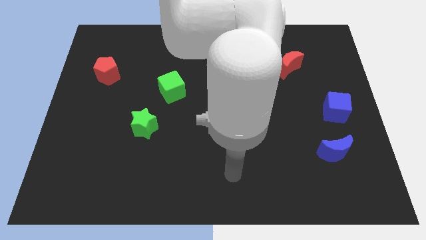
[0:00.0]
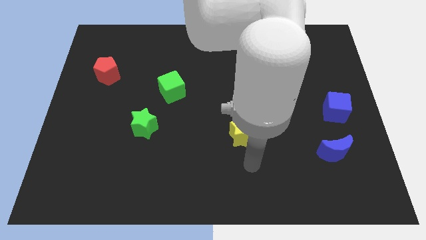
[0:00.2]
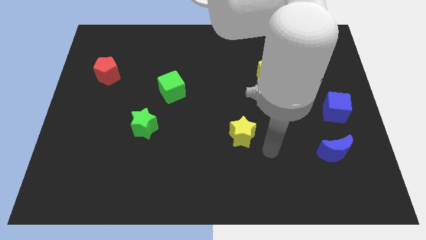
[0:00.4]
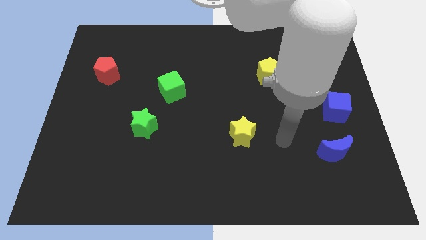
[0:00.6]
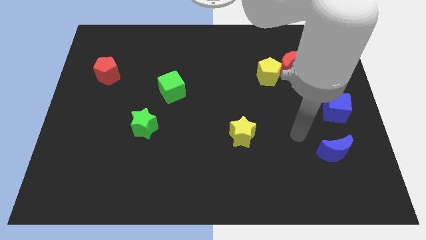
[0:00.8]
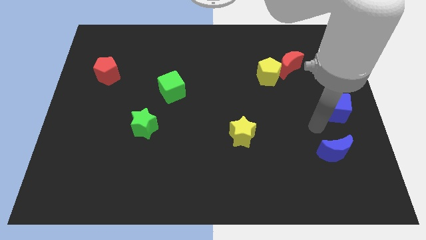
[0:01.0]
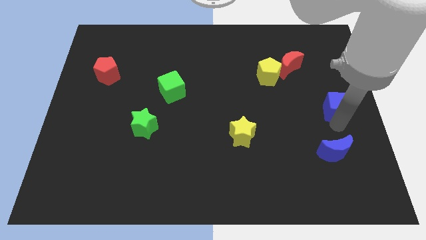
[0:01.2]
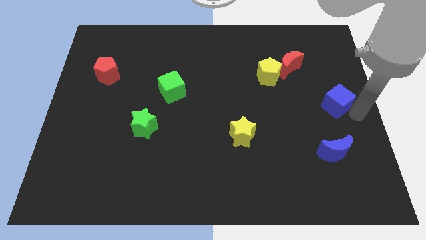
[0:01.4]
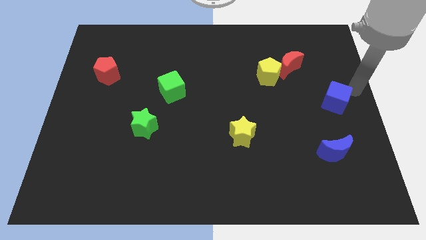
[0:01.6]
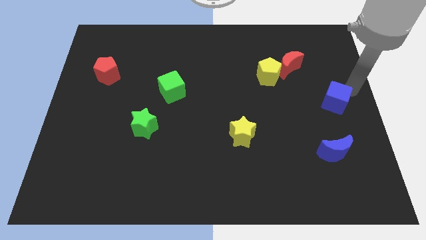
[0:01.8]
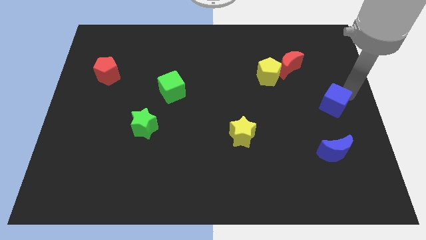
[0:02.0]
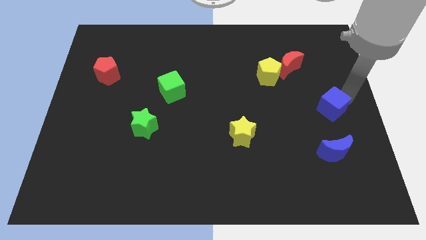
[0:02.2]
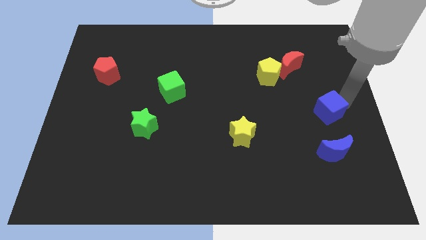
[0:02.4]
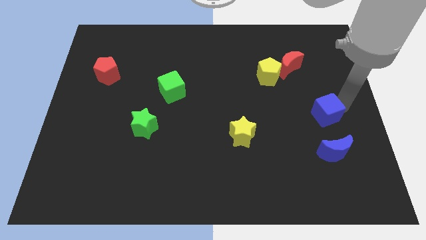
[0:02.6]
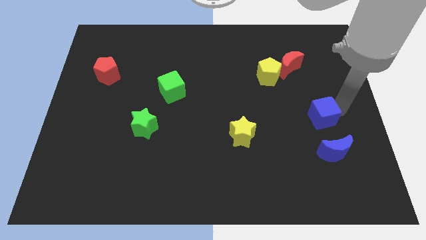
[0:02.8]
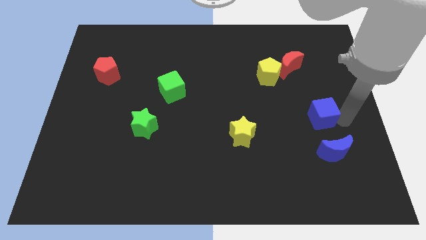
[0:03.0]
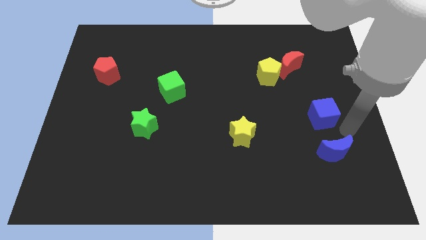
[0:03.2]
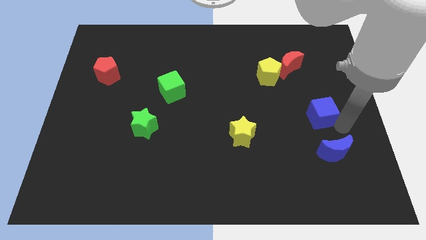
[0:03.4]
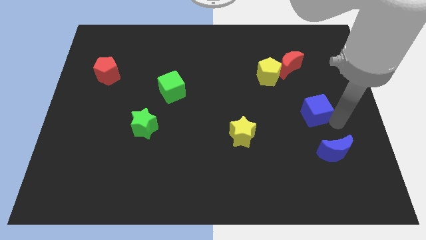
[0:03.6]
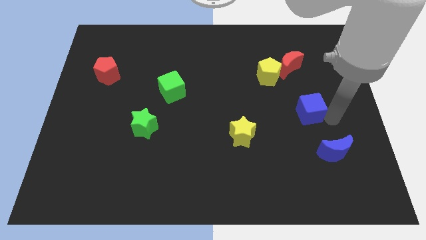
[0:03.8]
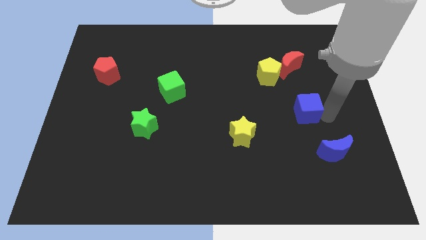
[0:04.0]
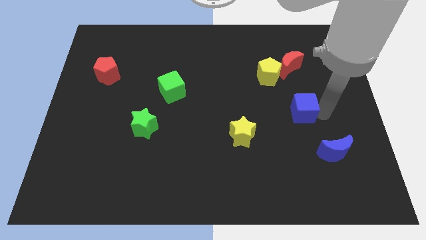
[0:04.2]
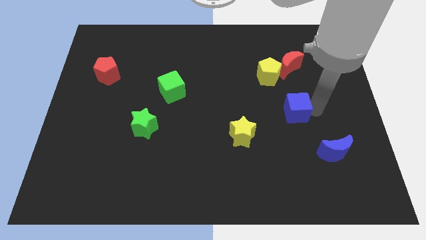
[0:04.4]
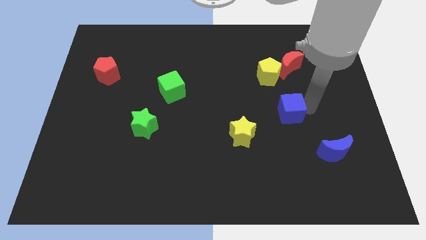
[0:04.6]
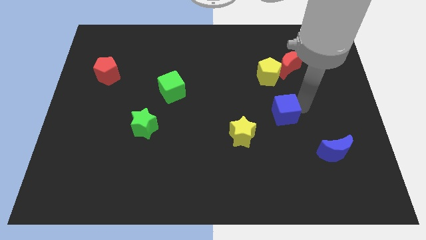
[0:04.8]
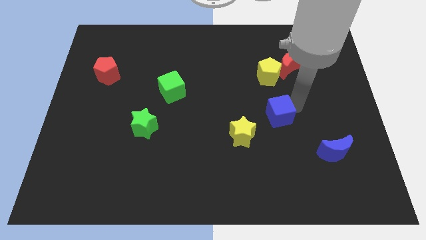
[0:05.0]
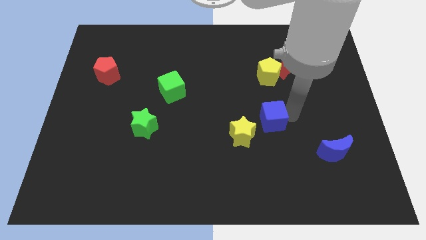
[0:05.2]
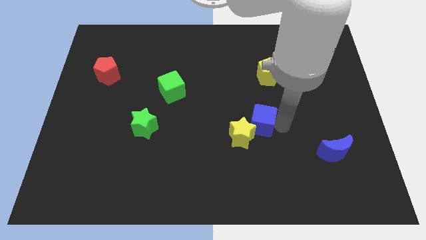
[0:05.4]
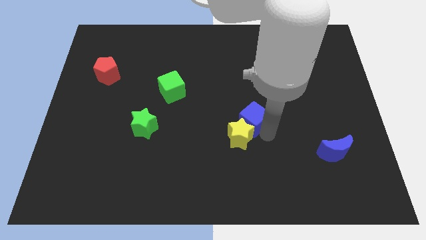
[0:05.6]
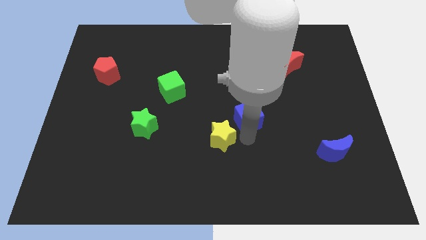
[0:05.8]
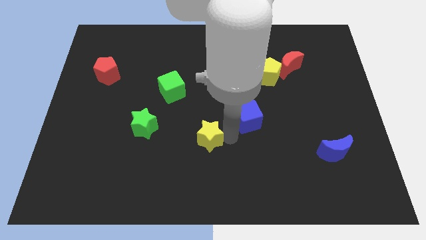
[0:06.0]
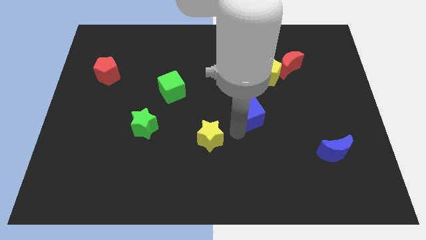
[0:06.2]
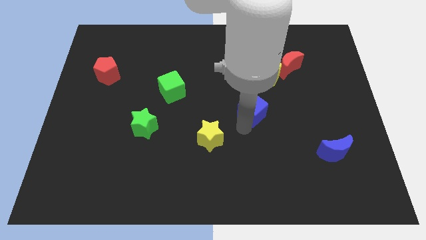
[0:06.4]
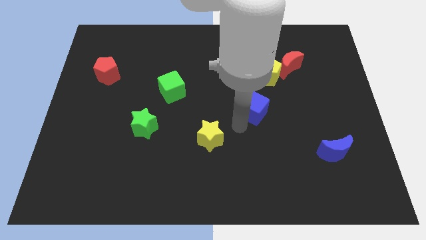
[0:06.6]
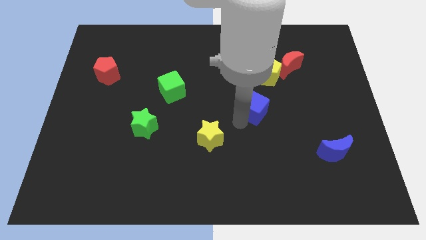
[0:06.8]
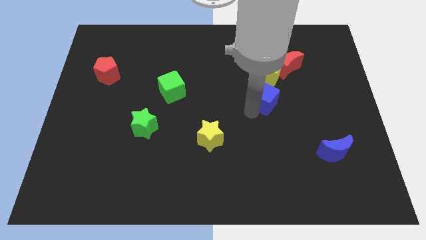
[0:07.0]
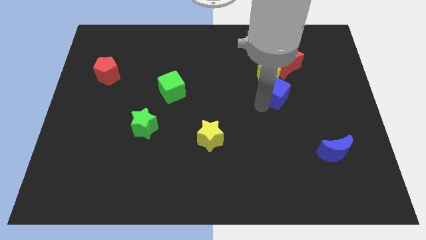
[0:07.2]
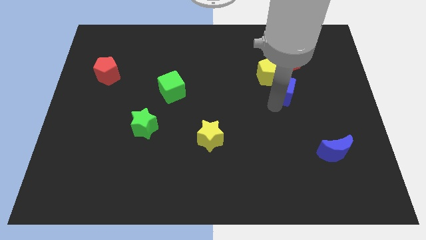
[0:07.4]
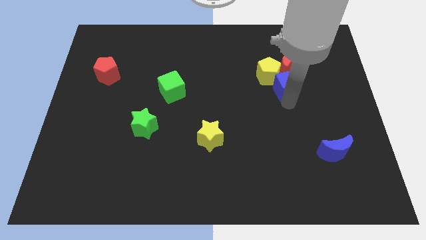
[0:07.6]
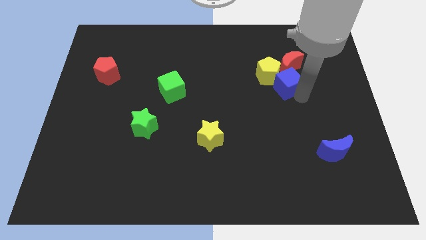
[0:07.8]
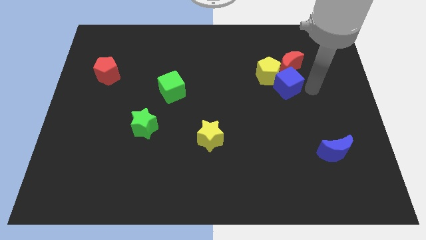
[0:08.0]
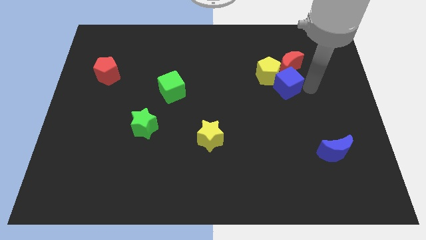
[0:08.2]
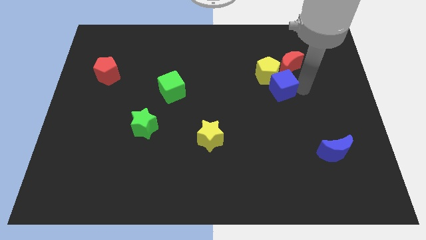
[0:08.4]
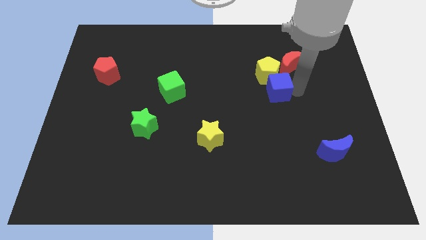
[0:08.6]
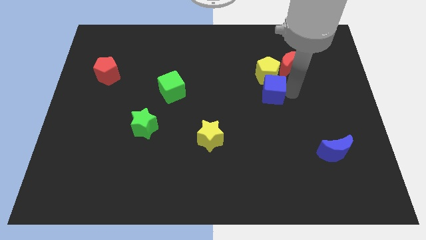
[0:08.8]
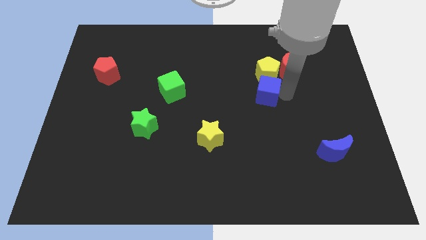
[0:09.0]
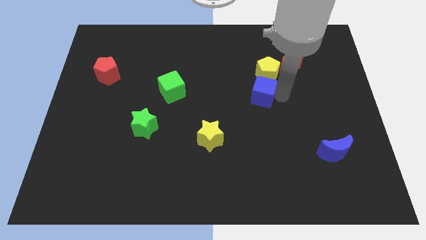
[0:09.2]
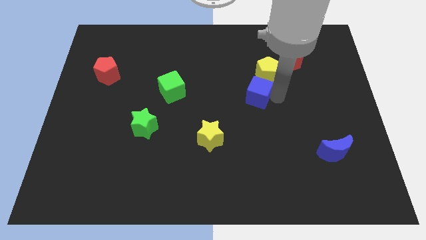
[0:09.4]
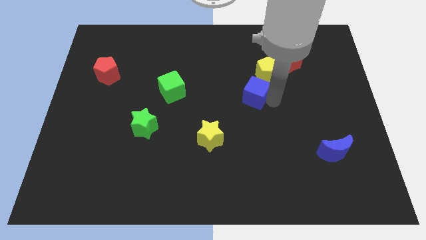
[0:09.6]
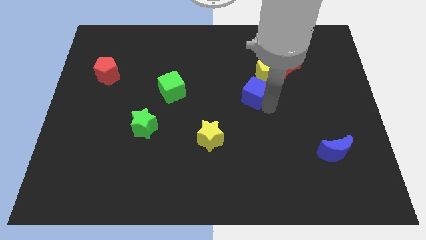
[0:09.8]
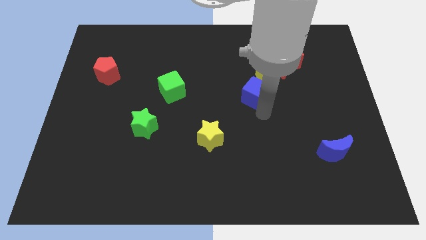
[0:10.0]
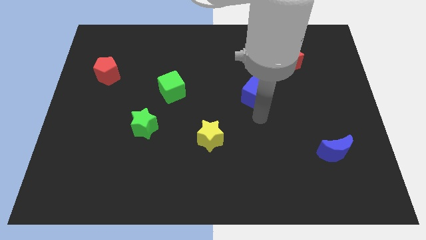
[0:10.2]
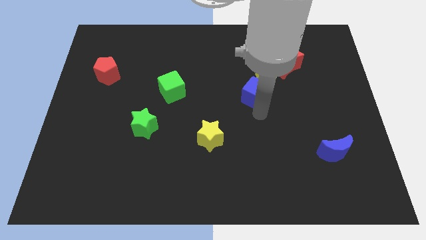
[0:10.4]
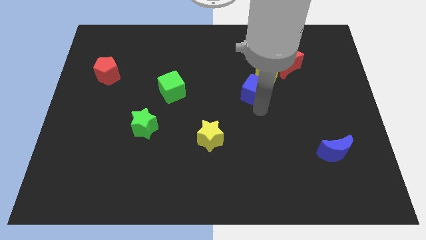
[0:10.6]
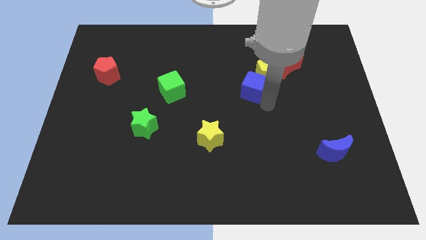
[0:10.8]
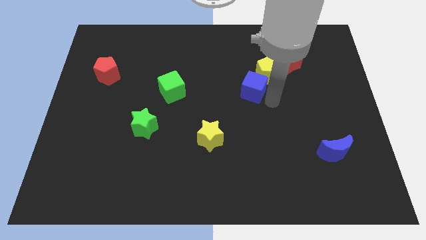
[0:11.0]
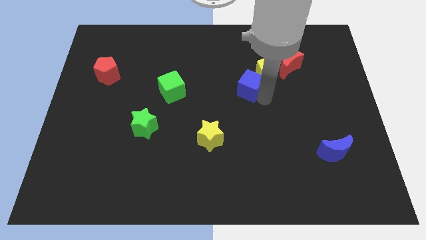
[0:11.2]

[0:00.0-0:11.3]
move the blue cube just left of the yellow pentagon

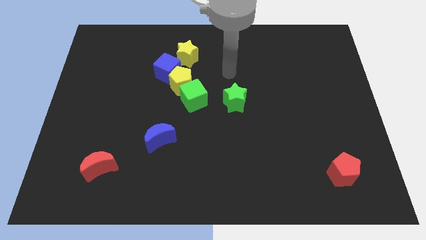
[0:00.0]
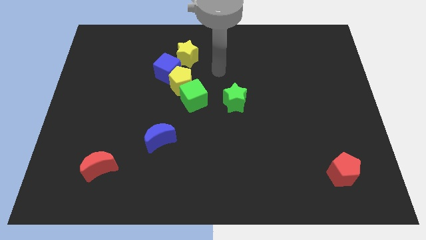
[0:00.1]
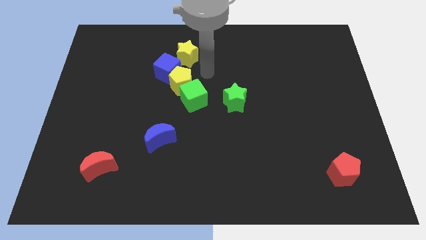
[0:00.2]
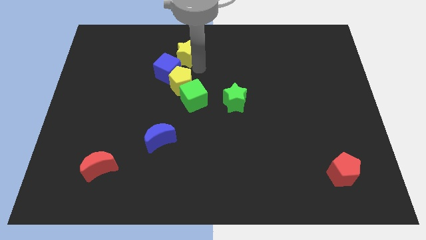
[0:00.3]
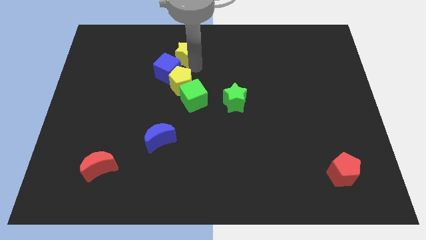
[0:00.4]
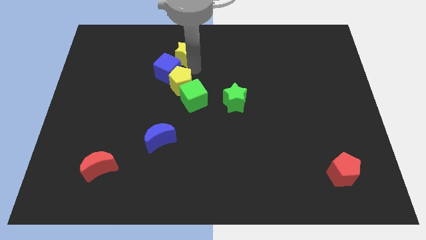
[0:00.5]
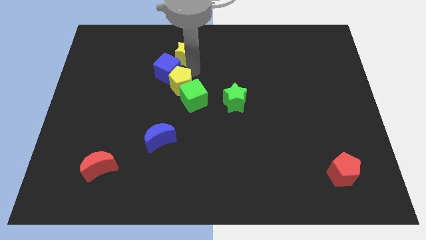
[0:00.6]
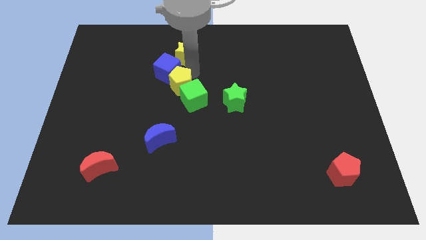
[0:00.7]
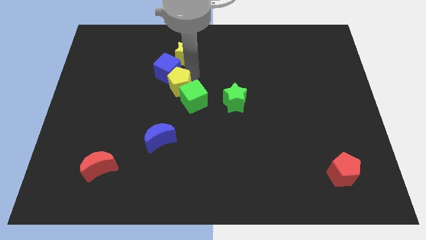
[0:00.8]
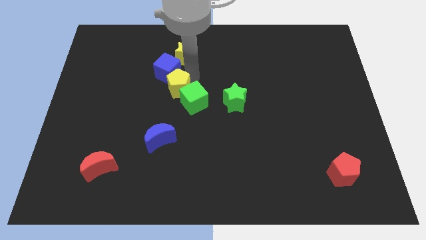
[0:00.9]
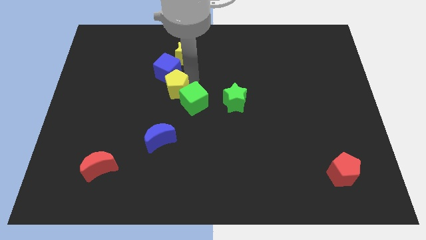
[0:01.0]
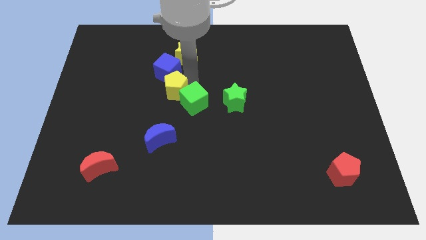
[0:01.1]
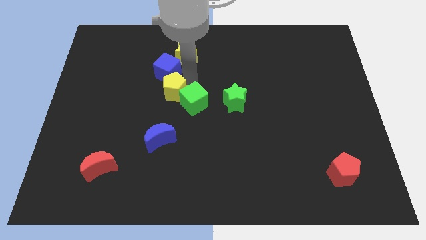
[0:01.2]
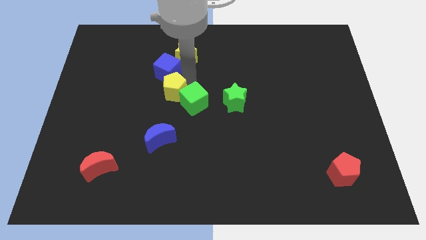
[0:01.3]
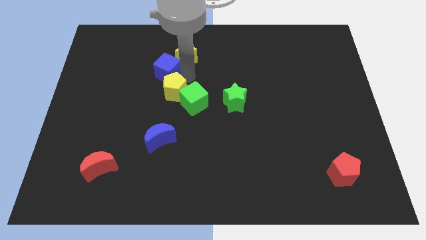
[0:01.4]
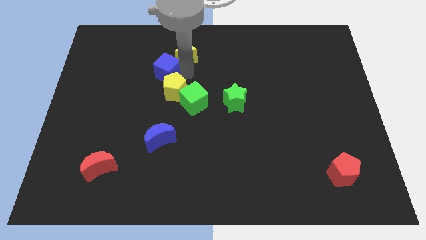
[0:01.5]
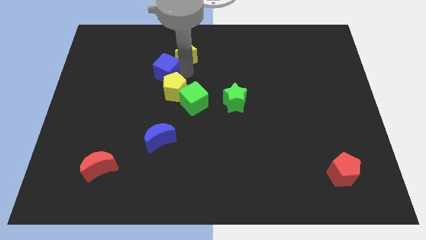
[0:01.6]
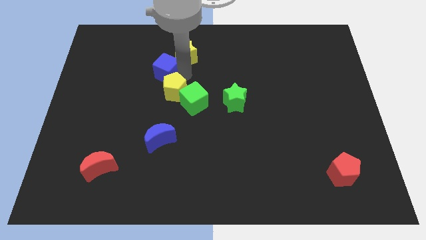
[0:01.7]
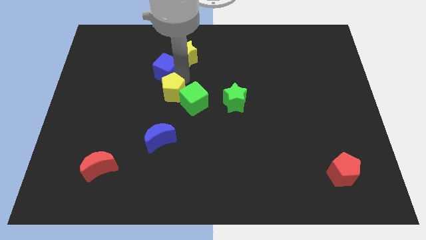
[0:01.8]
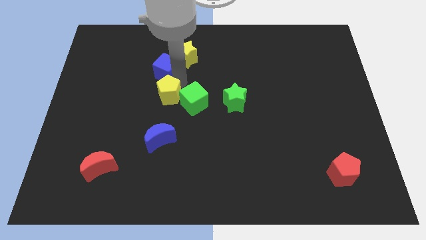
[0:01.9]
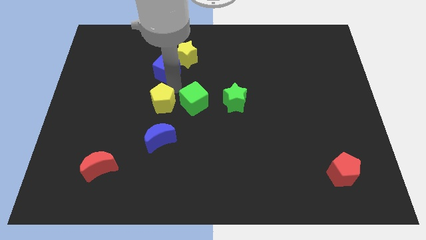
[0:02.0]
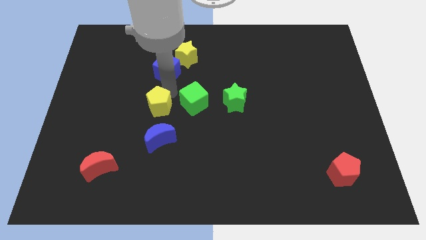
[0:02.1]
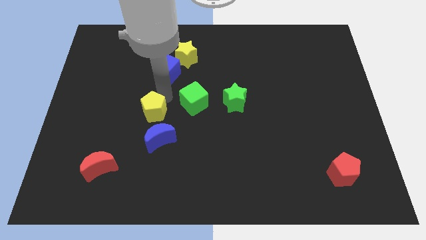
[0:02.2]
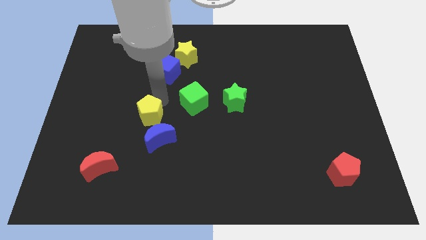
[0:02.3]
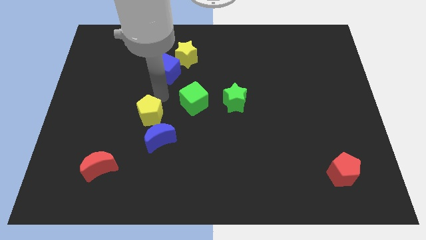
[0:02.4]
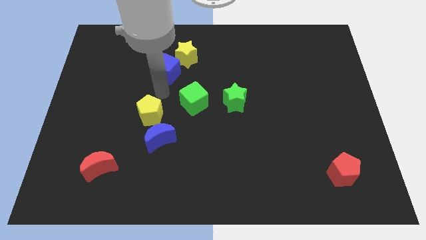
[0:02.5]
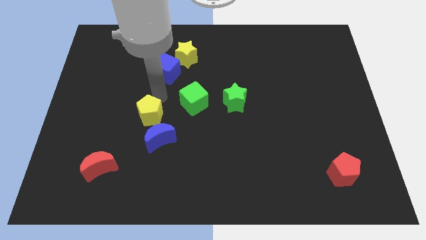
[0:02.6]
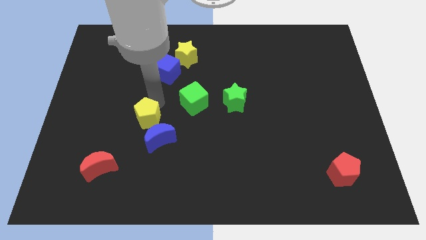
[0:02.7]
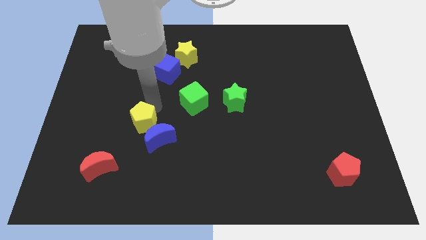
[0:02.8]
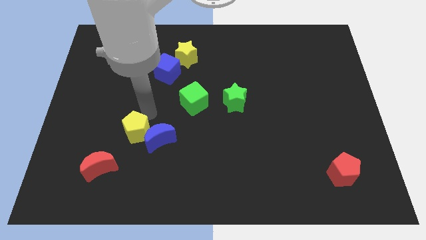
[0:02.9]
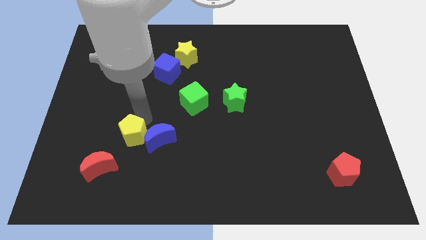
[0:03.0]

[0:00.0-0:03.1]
slide the yellow pentagon to the bottom left of the blue moon
